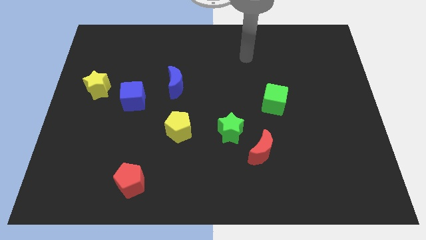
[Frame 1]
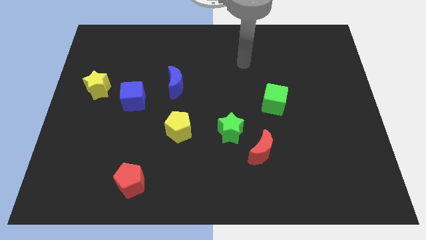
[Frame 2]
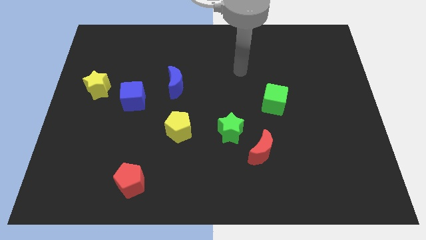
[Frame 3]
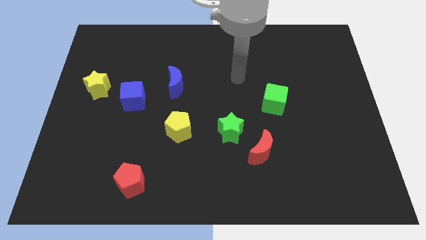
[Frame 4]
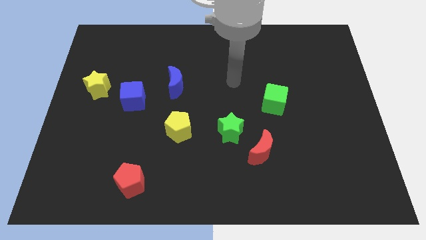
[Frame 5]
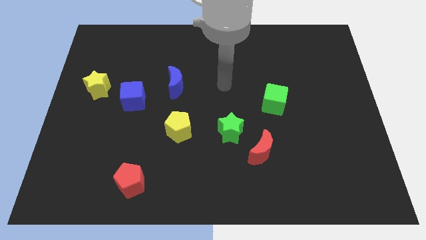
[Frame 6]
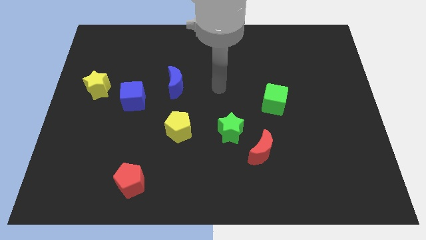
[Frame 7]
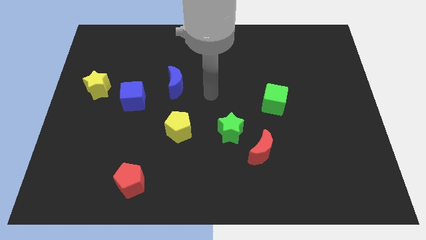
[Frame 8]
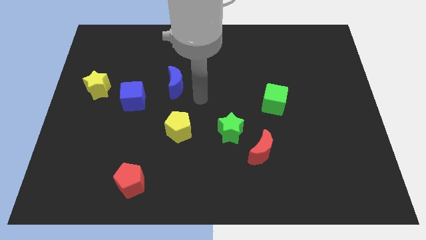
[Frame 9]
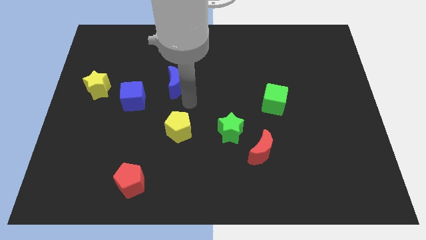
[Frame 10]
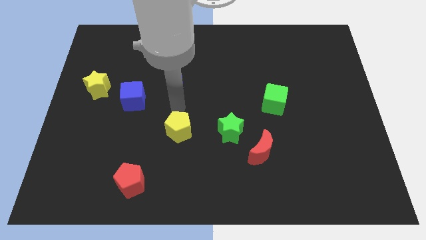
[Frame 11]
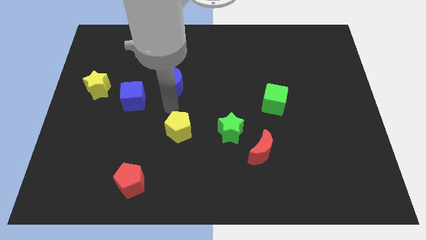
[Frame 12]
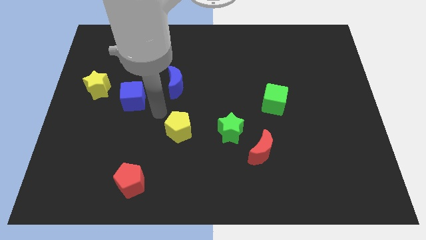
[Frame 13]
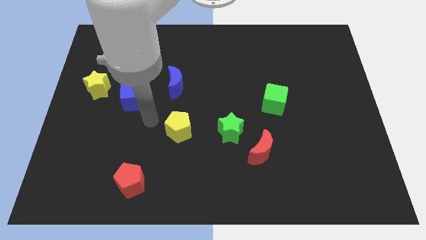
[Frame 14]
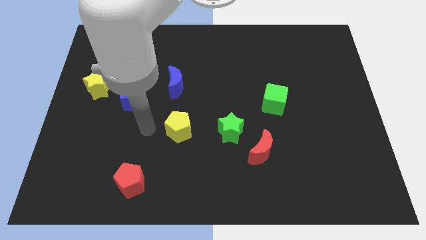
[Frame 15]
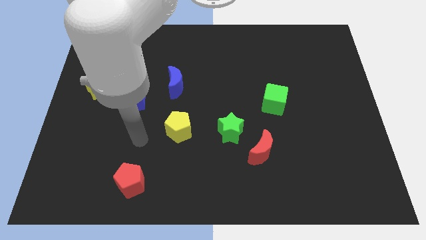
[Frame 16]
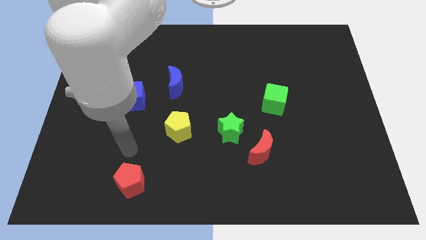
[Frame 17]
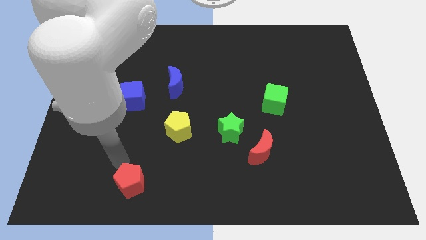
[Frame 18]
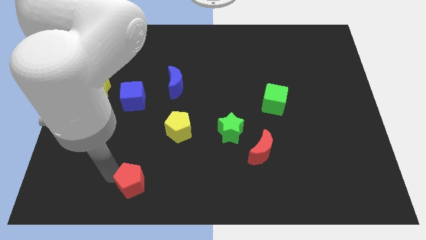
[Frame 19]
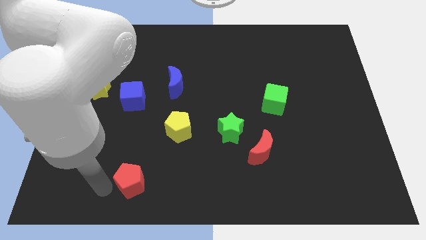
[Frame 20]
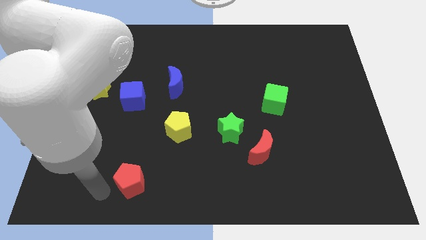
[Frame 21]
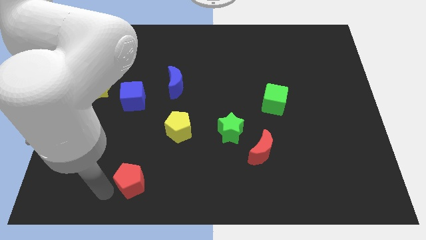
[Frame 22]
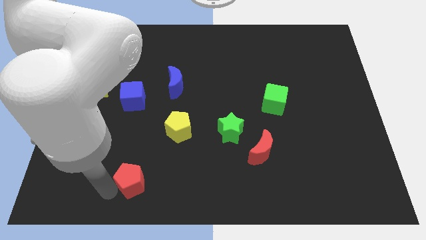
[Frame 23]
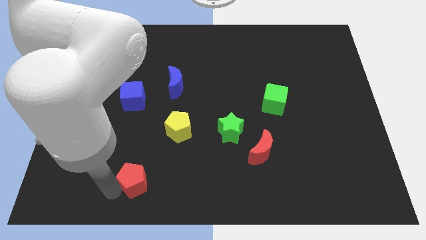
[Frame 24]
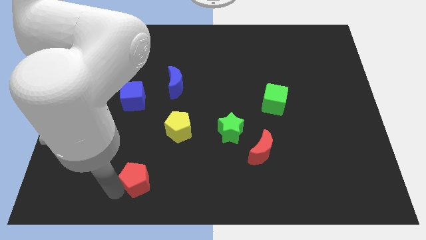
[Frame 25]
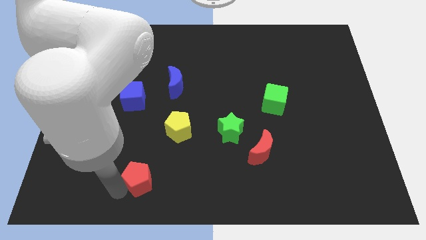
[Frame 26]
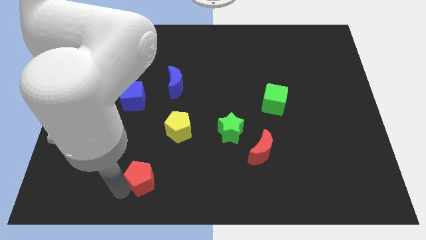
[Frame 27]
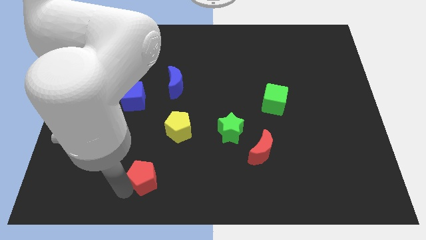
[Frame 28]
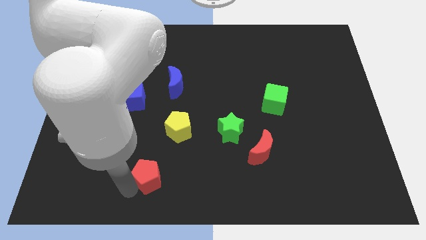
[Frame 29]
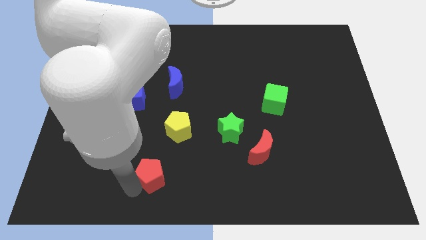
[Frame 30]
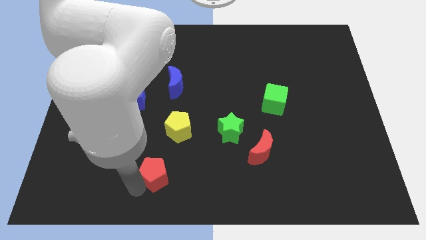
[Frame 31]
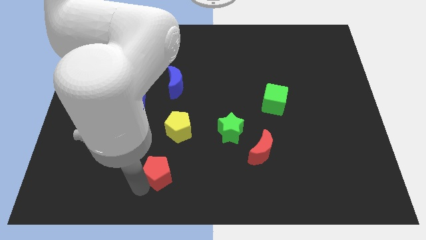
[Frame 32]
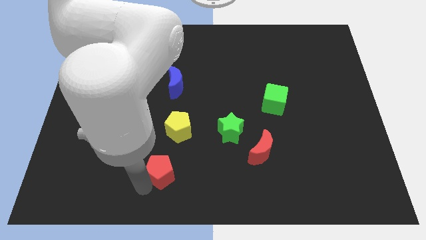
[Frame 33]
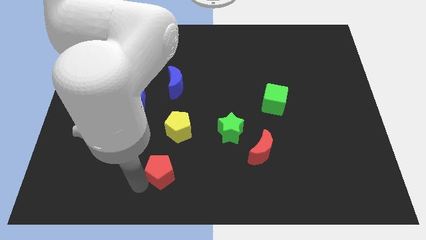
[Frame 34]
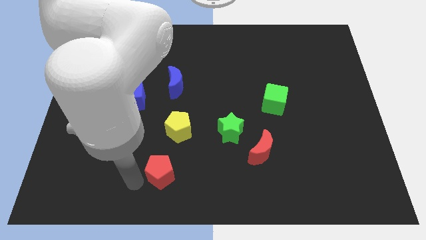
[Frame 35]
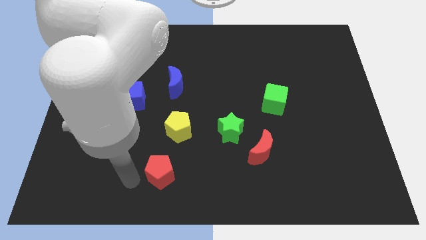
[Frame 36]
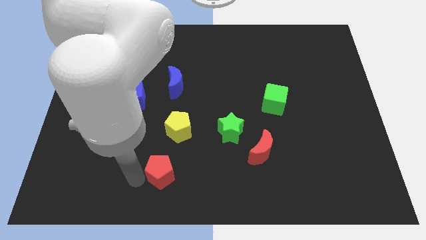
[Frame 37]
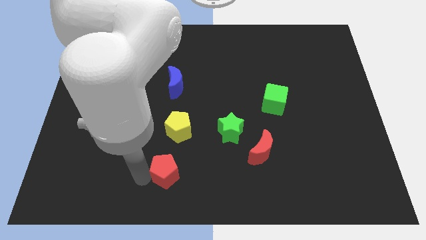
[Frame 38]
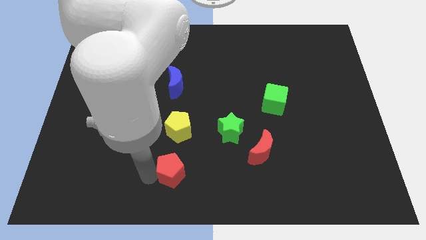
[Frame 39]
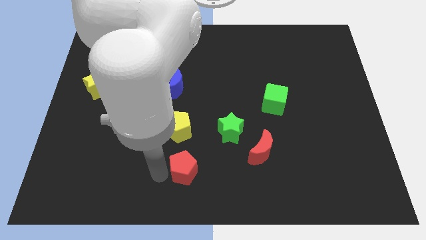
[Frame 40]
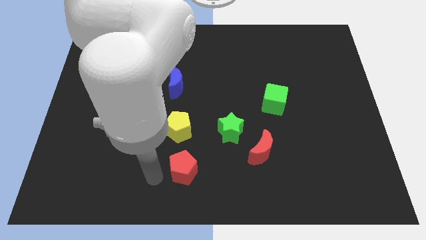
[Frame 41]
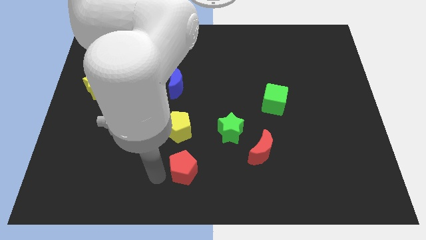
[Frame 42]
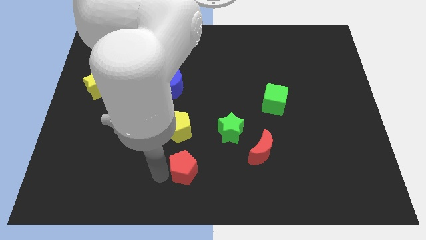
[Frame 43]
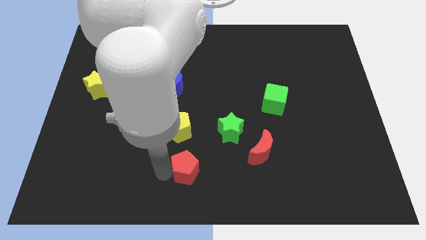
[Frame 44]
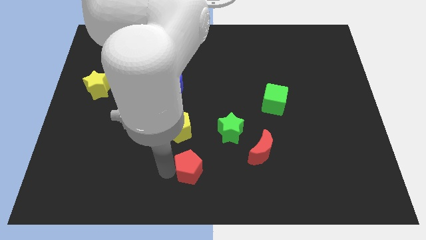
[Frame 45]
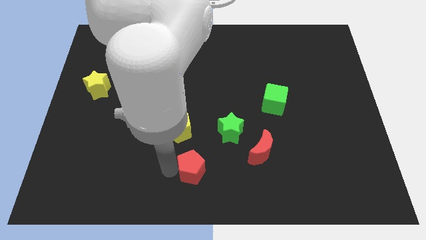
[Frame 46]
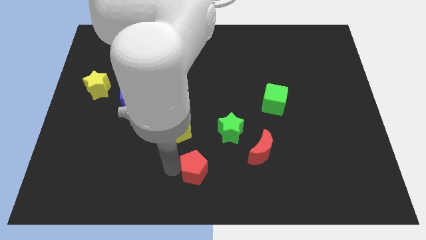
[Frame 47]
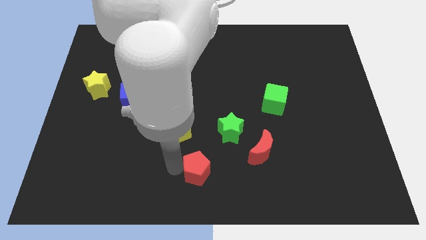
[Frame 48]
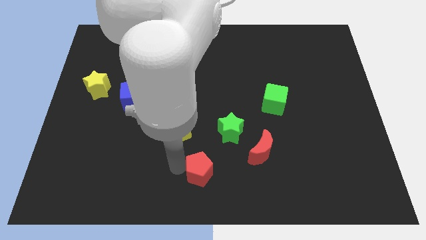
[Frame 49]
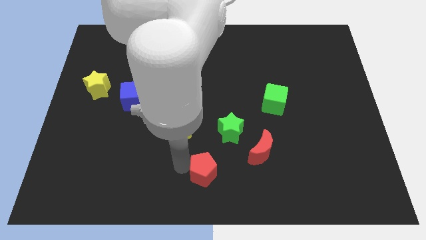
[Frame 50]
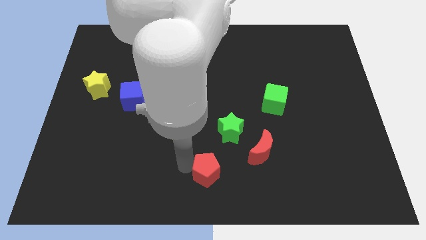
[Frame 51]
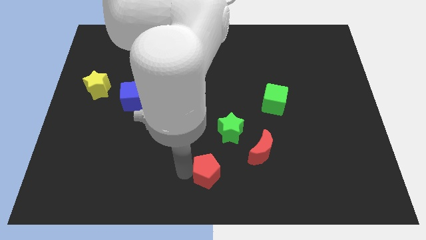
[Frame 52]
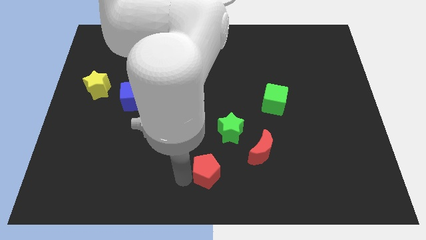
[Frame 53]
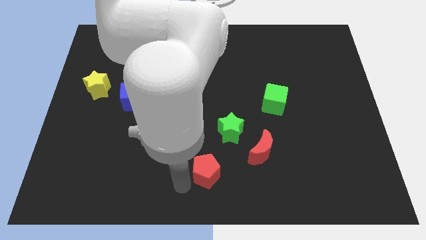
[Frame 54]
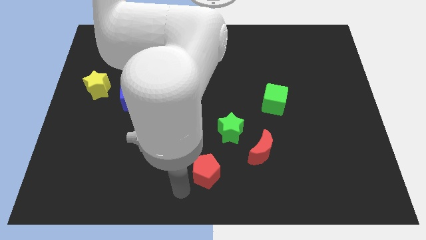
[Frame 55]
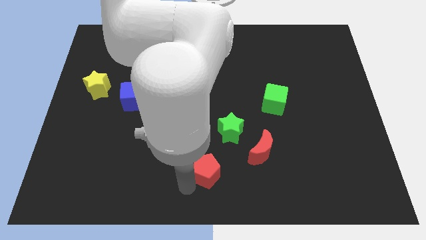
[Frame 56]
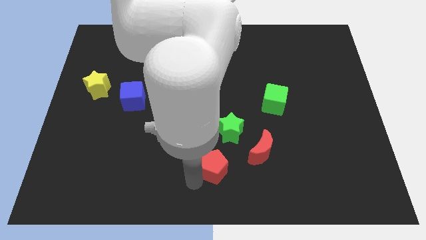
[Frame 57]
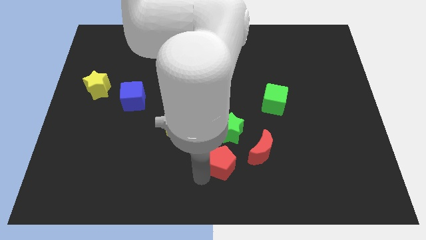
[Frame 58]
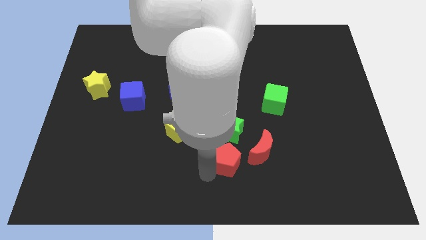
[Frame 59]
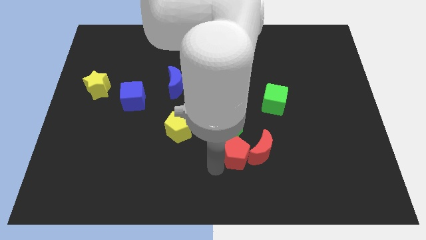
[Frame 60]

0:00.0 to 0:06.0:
slide the red pentagon towards the red moon

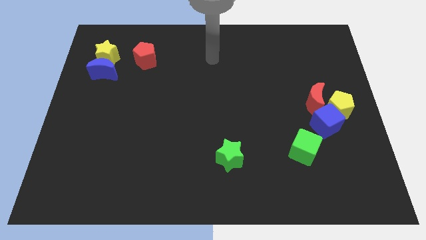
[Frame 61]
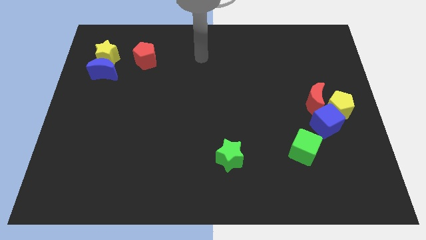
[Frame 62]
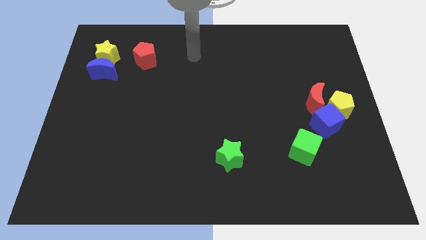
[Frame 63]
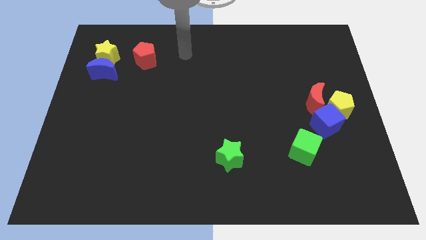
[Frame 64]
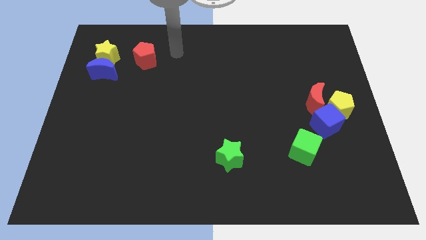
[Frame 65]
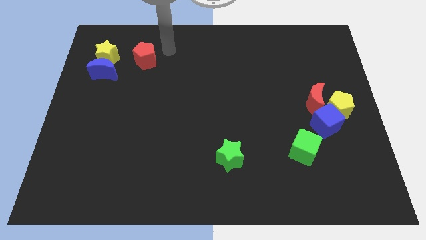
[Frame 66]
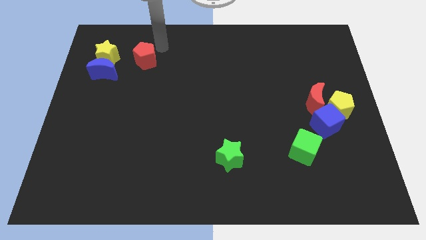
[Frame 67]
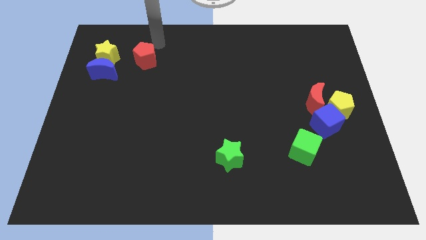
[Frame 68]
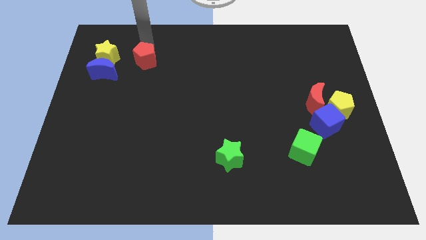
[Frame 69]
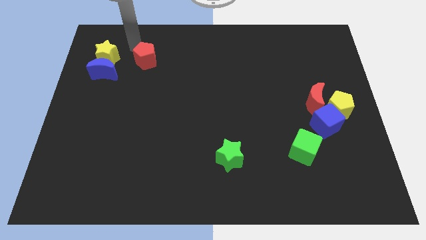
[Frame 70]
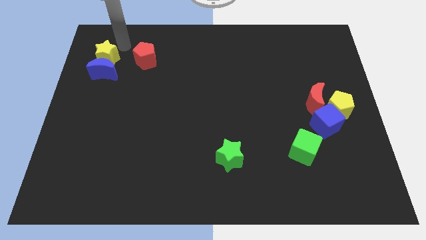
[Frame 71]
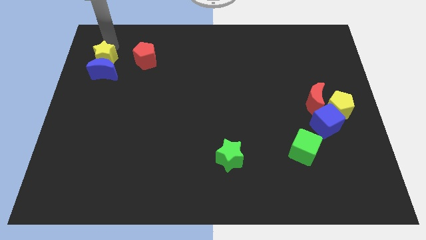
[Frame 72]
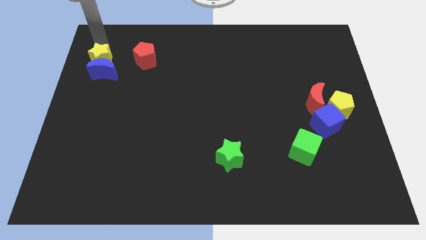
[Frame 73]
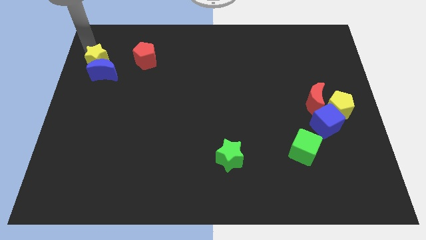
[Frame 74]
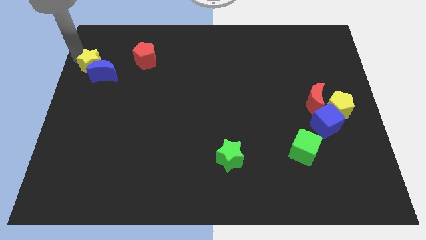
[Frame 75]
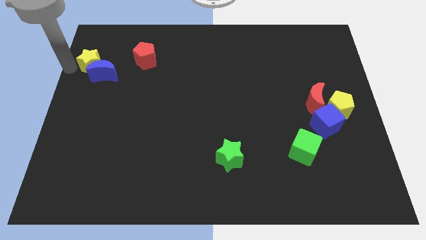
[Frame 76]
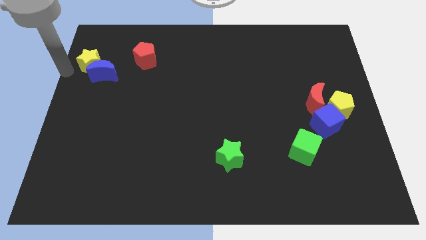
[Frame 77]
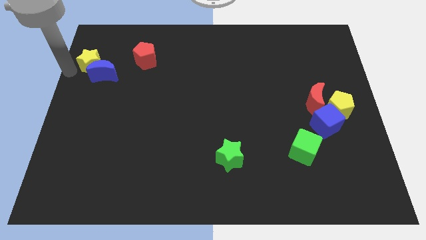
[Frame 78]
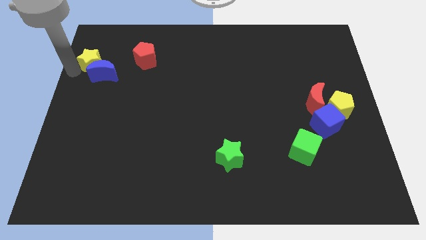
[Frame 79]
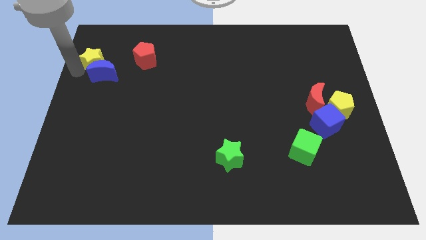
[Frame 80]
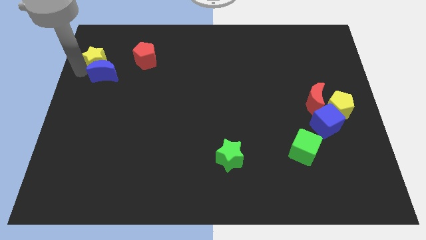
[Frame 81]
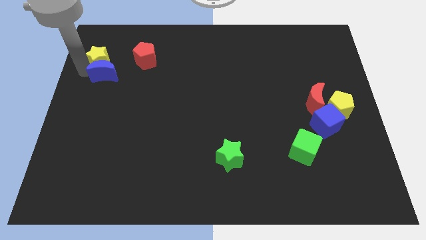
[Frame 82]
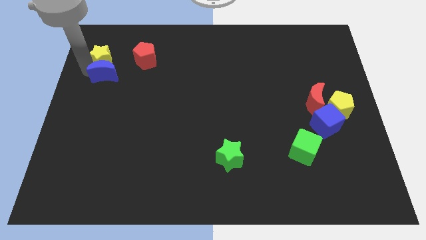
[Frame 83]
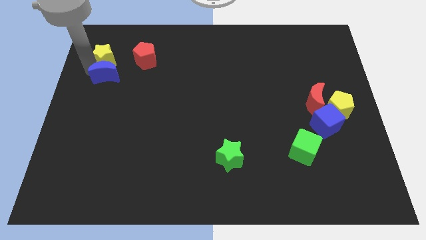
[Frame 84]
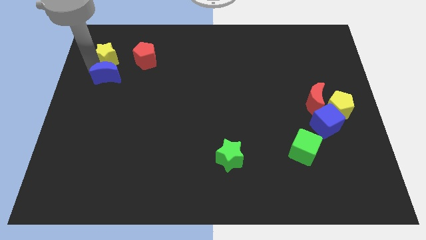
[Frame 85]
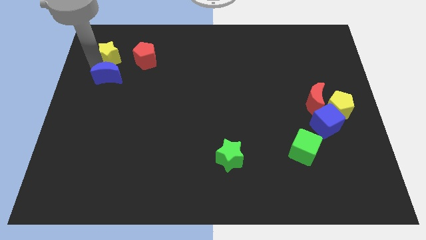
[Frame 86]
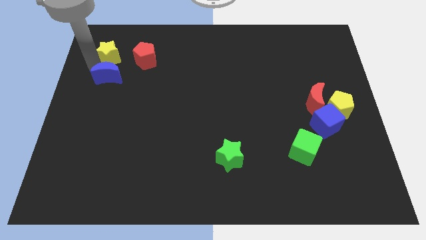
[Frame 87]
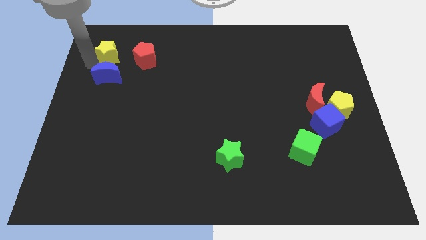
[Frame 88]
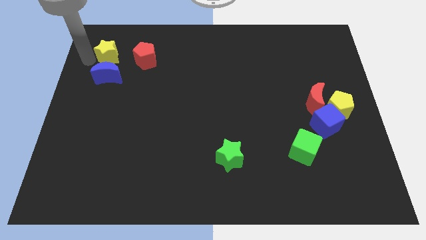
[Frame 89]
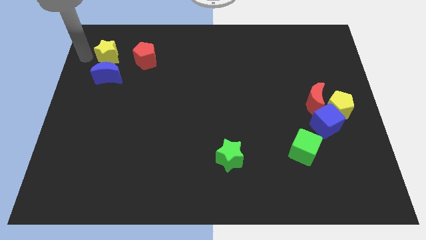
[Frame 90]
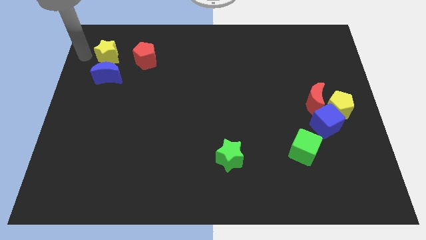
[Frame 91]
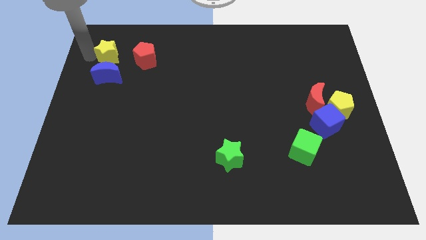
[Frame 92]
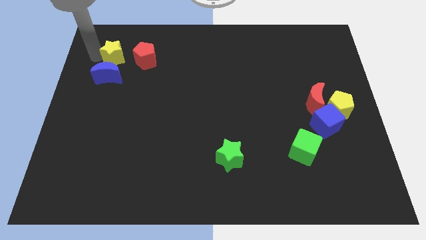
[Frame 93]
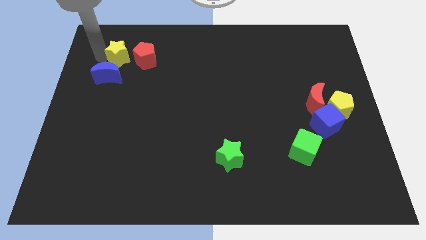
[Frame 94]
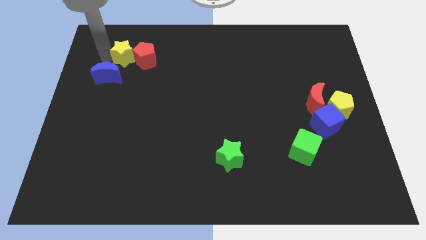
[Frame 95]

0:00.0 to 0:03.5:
move the yellow star next to the red pentagon
